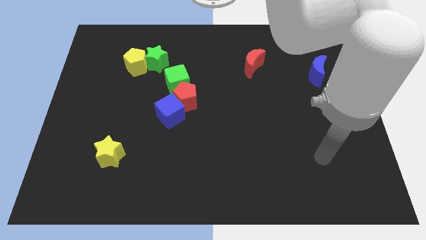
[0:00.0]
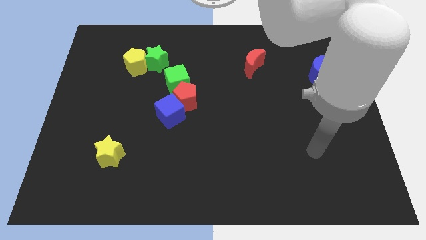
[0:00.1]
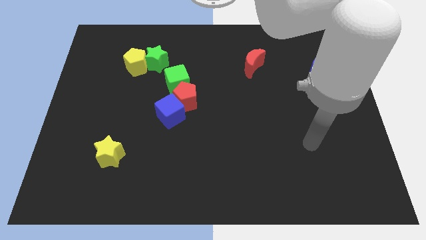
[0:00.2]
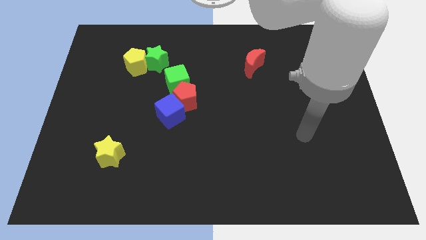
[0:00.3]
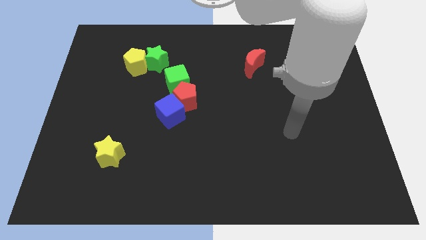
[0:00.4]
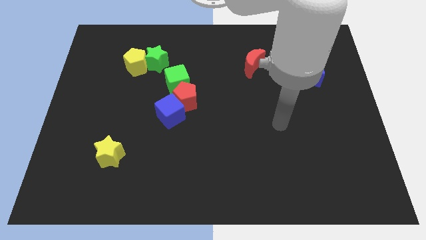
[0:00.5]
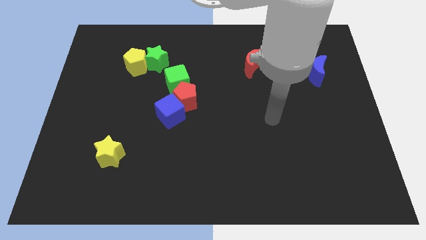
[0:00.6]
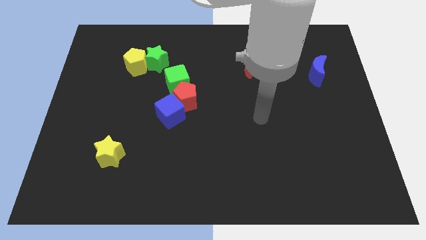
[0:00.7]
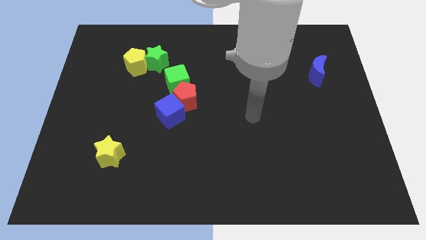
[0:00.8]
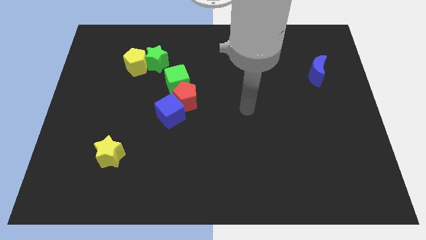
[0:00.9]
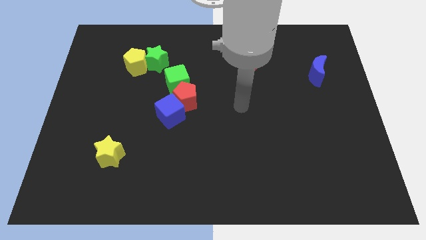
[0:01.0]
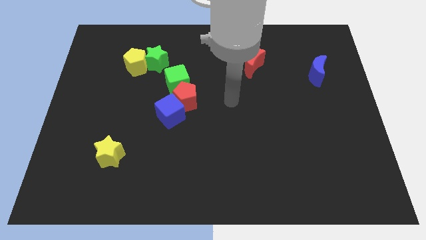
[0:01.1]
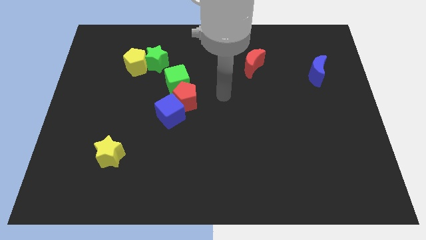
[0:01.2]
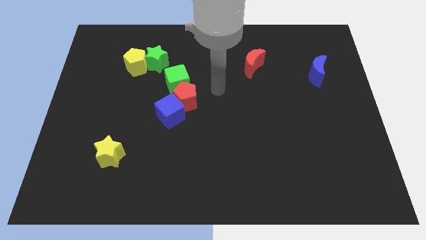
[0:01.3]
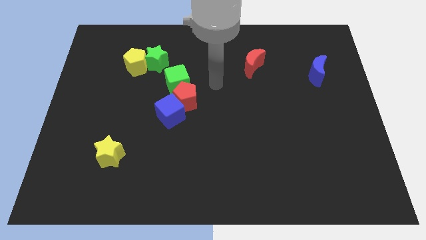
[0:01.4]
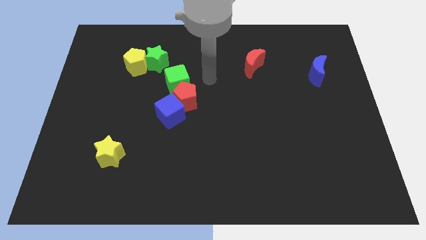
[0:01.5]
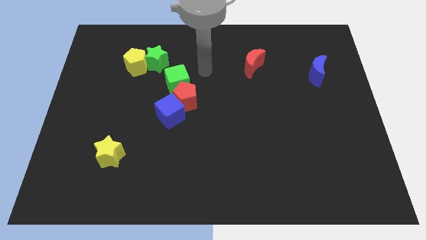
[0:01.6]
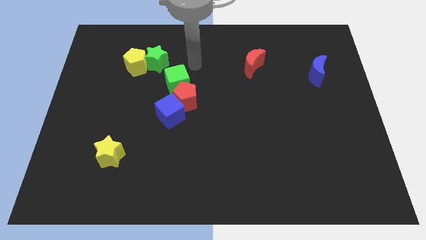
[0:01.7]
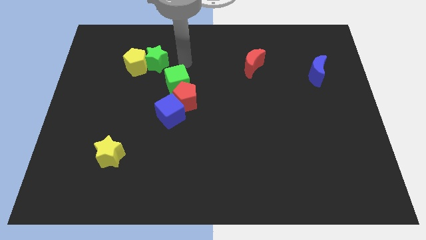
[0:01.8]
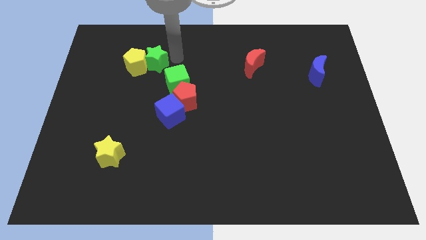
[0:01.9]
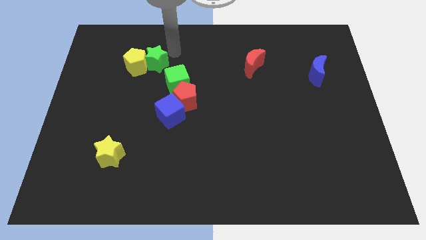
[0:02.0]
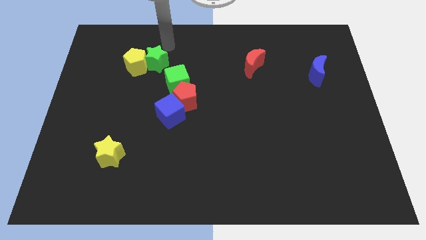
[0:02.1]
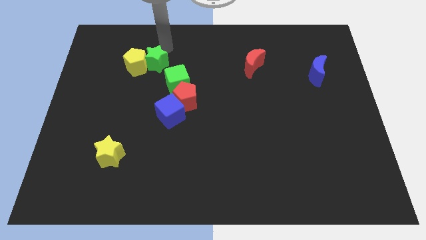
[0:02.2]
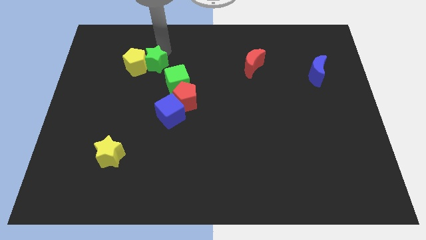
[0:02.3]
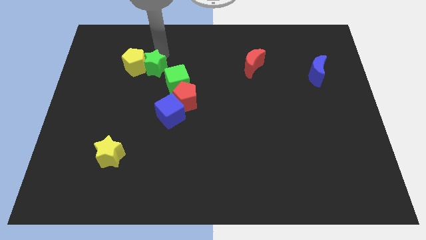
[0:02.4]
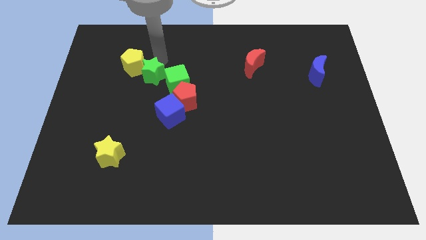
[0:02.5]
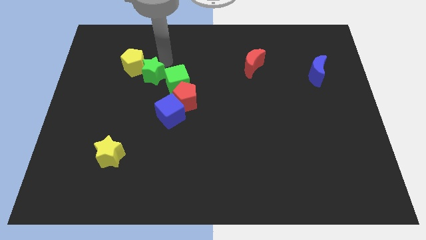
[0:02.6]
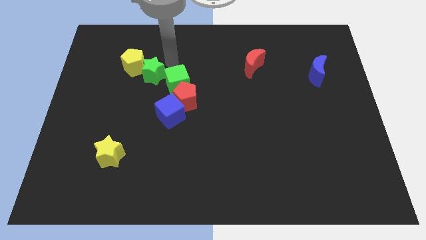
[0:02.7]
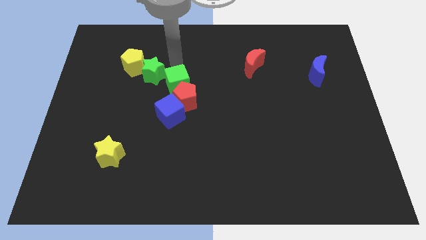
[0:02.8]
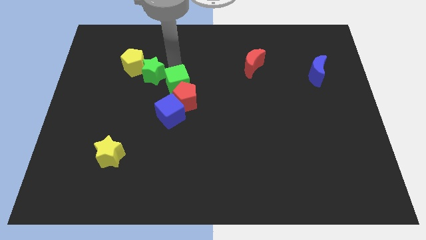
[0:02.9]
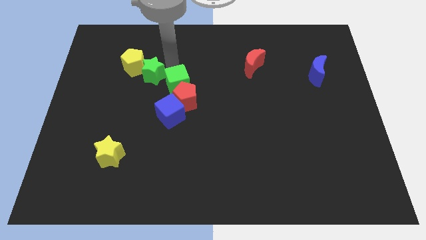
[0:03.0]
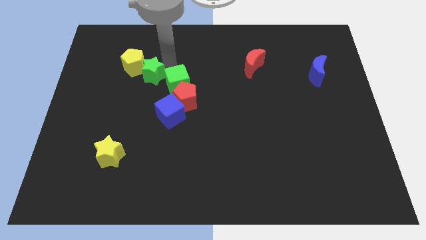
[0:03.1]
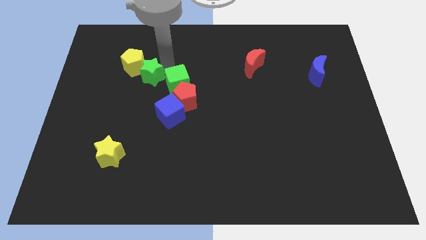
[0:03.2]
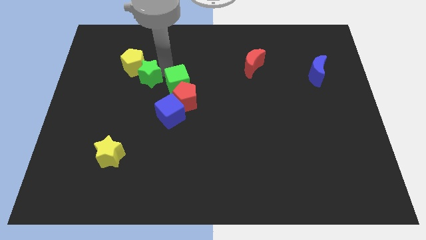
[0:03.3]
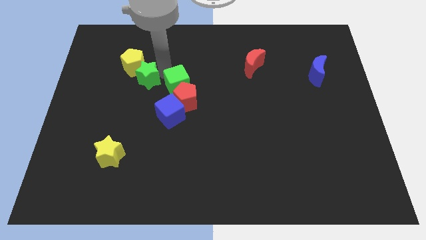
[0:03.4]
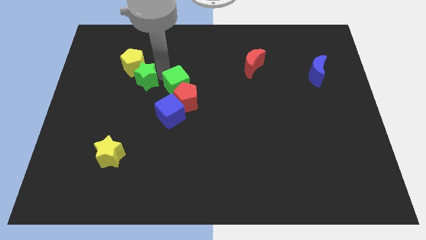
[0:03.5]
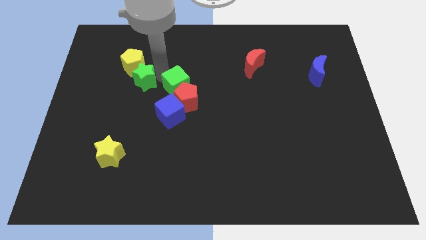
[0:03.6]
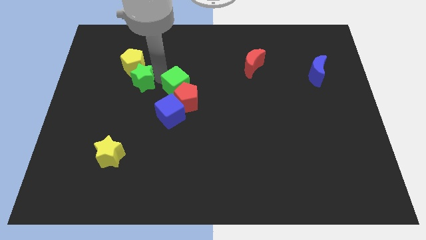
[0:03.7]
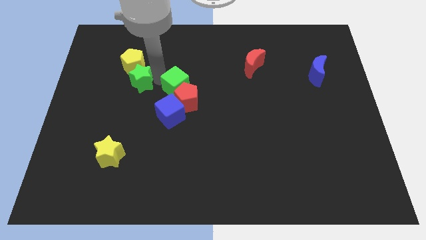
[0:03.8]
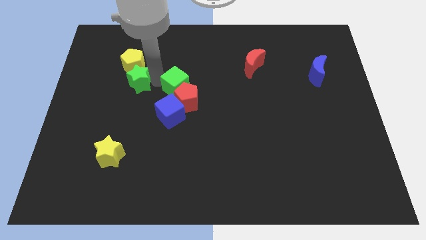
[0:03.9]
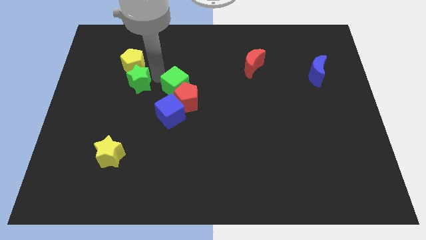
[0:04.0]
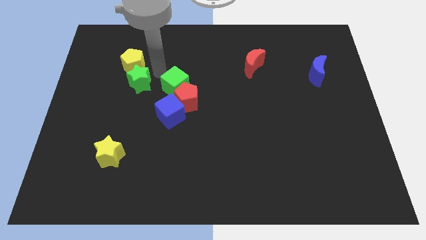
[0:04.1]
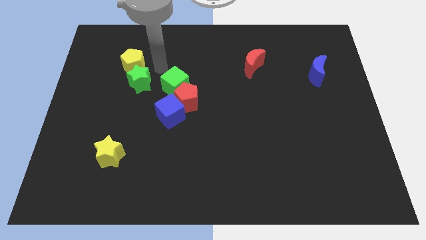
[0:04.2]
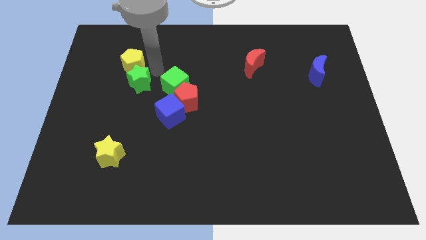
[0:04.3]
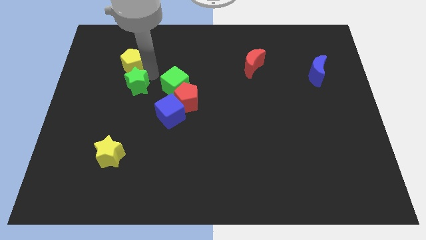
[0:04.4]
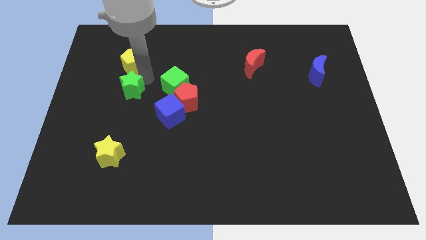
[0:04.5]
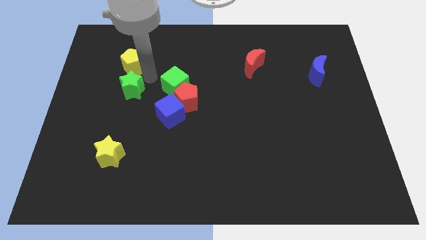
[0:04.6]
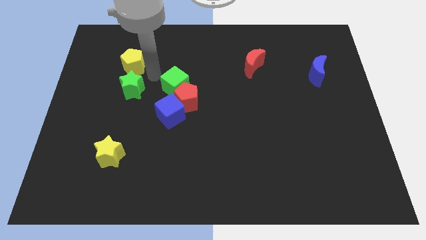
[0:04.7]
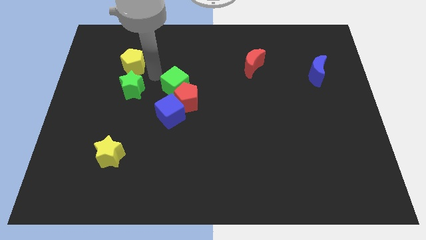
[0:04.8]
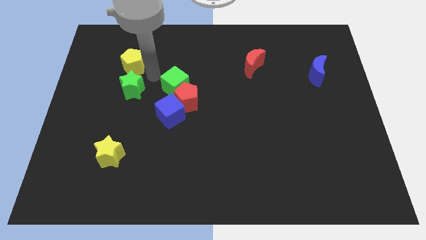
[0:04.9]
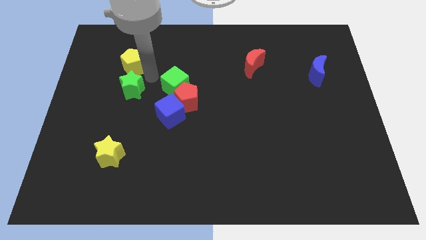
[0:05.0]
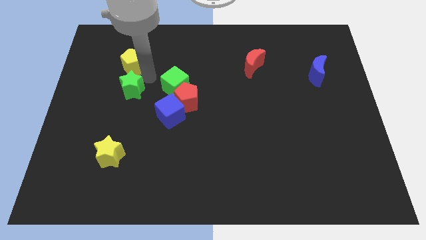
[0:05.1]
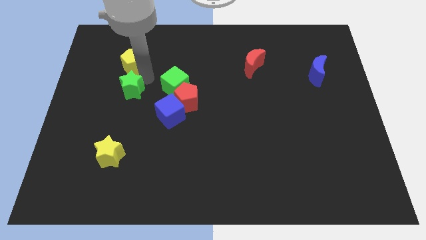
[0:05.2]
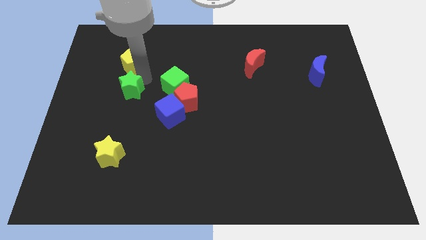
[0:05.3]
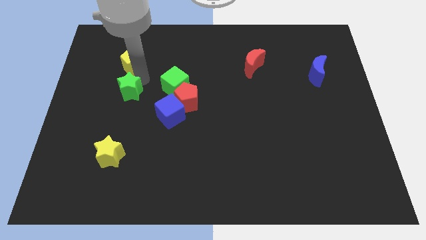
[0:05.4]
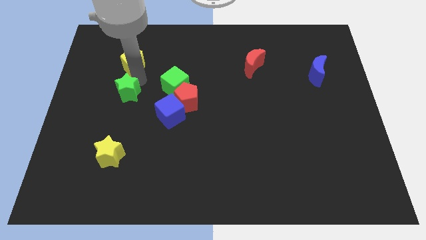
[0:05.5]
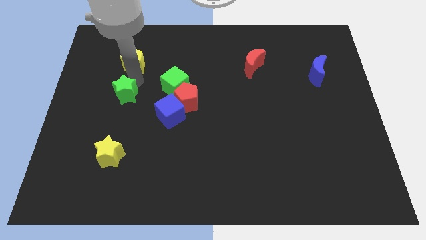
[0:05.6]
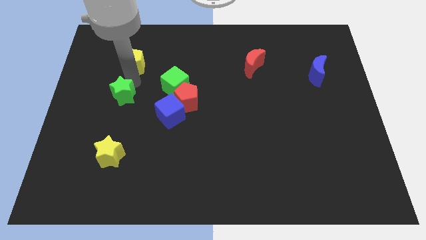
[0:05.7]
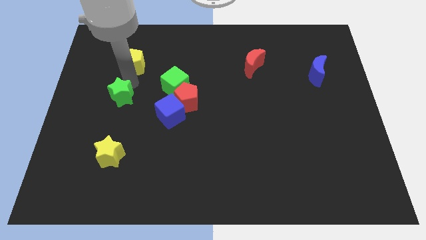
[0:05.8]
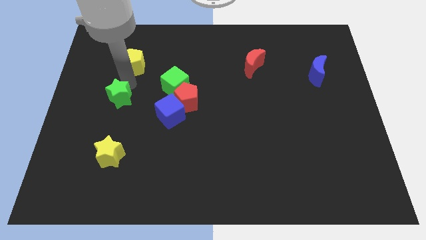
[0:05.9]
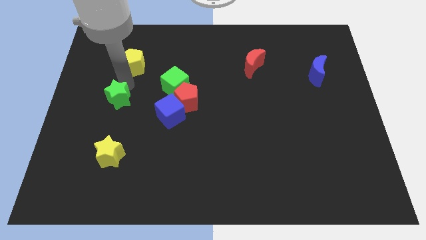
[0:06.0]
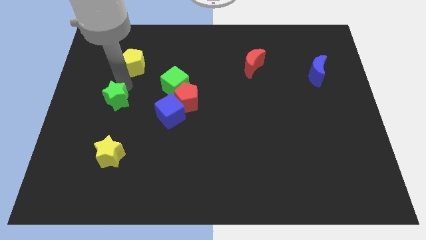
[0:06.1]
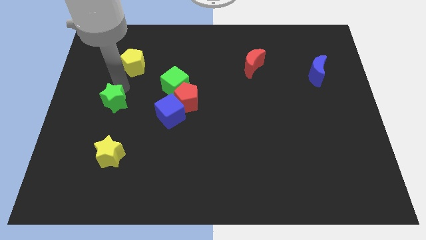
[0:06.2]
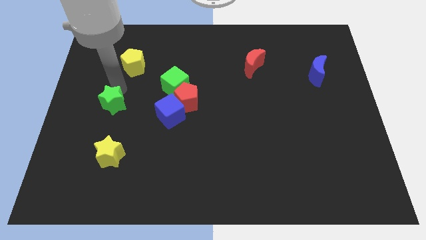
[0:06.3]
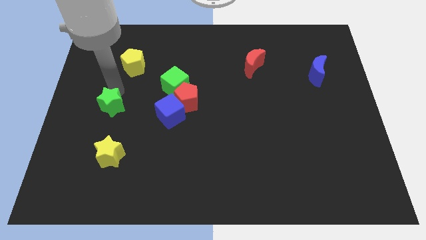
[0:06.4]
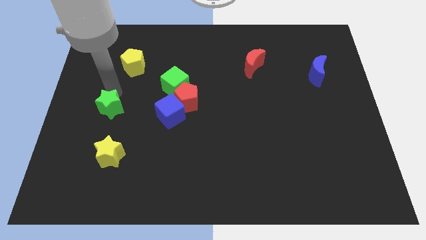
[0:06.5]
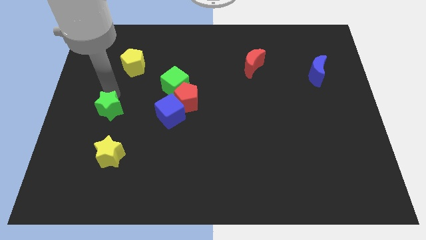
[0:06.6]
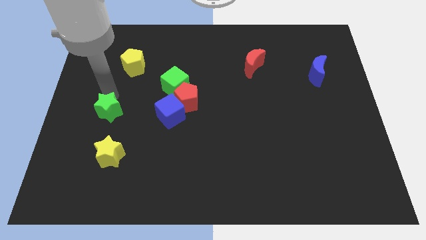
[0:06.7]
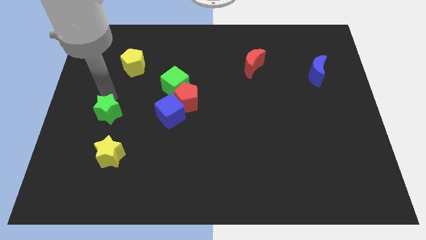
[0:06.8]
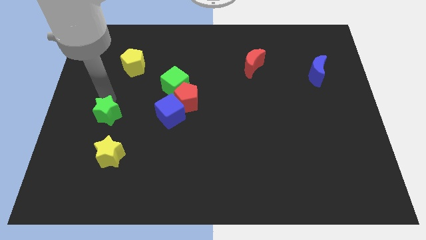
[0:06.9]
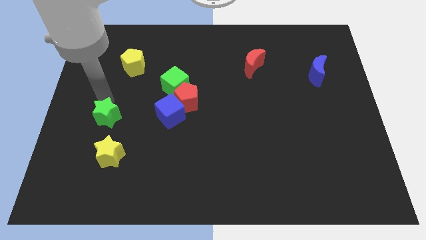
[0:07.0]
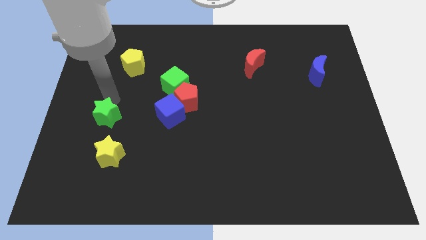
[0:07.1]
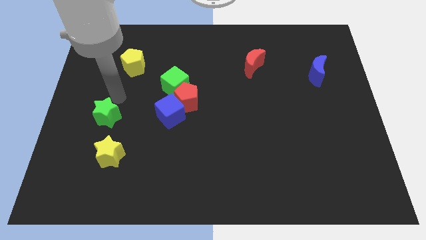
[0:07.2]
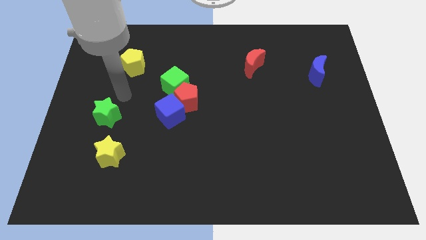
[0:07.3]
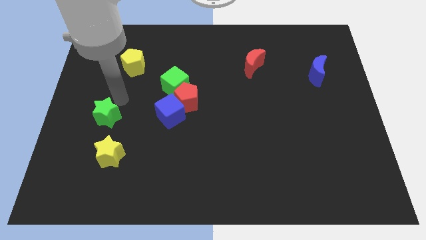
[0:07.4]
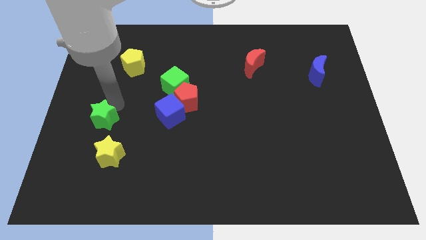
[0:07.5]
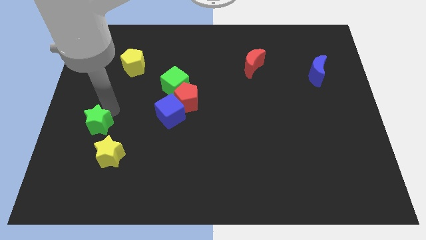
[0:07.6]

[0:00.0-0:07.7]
put the green star diagonally up and to the left of the yellow star

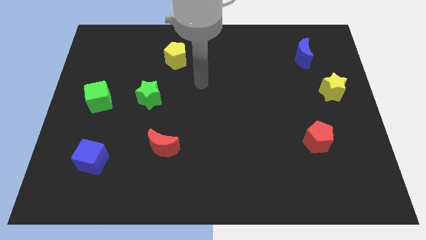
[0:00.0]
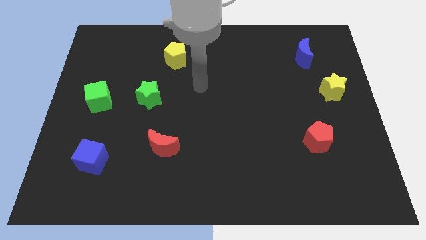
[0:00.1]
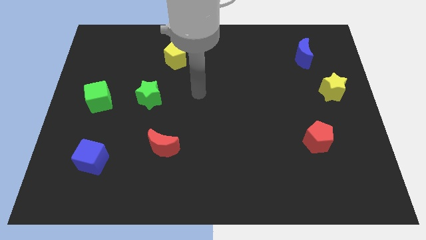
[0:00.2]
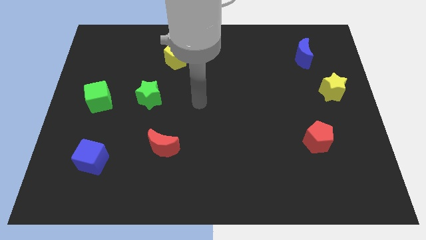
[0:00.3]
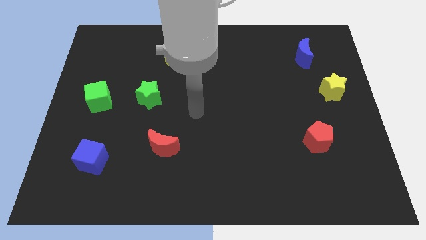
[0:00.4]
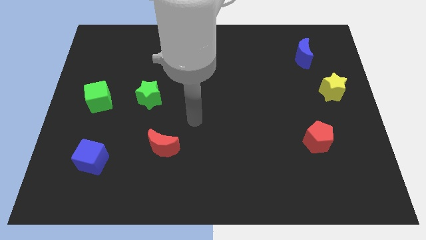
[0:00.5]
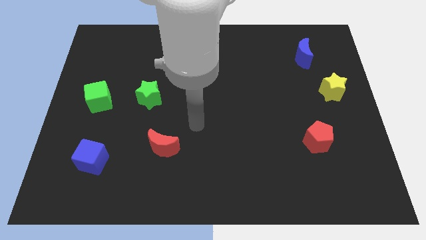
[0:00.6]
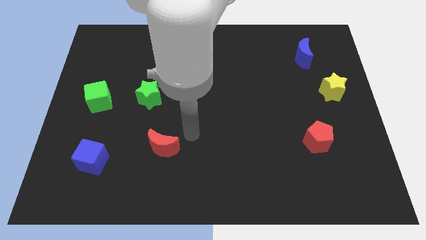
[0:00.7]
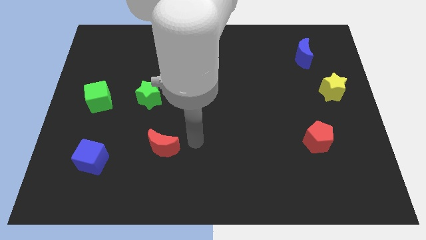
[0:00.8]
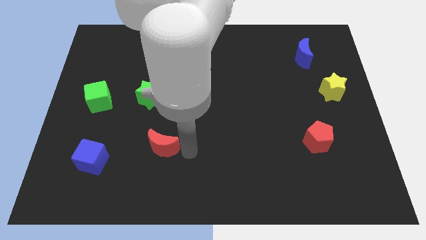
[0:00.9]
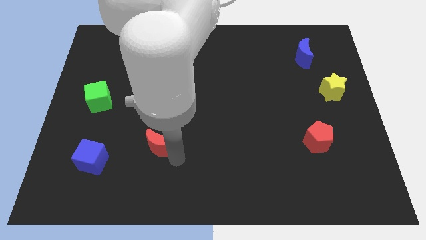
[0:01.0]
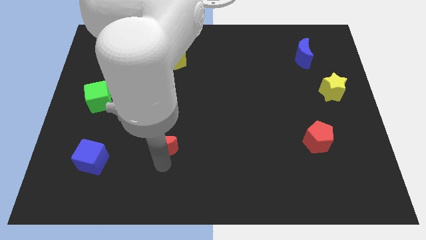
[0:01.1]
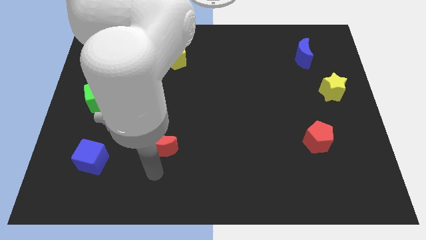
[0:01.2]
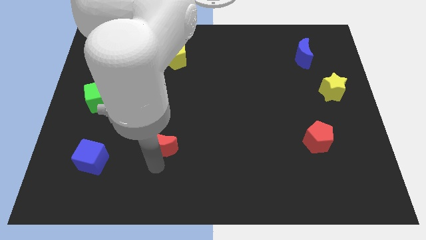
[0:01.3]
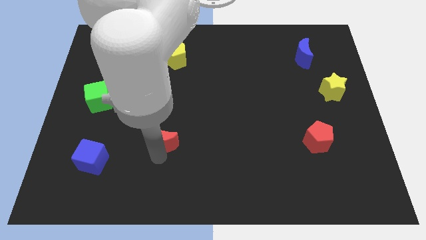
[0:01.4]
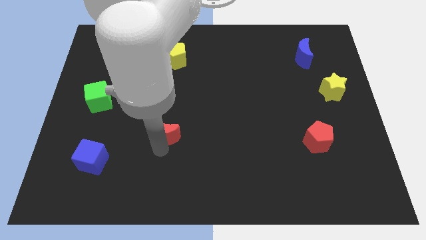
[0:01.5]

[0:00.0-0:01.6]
move the red moon to the bottom right side of the green star
